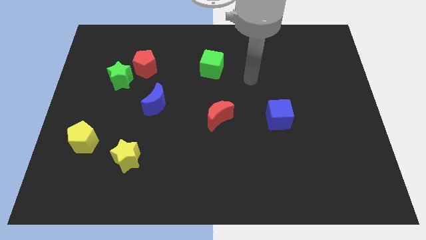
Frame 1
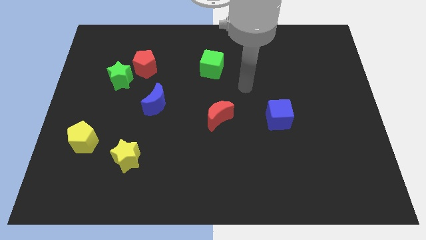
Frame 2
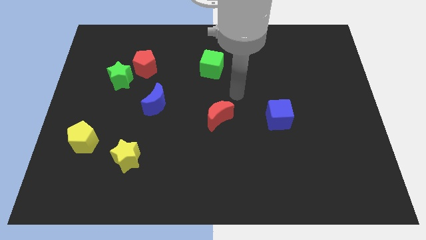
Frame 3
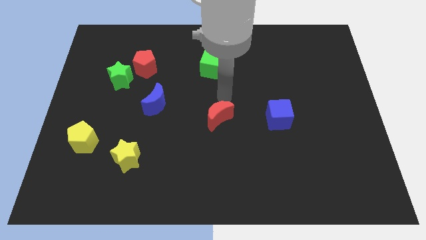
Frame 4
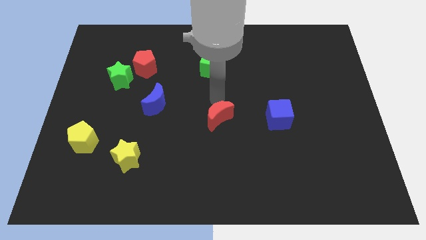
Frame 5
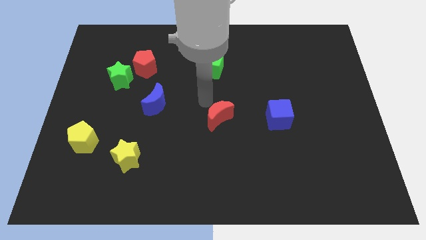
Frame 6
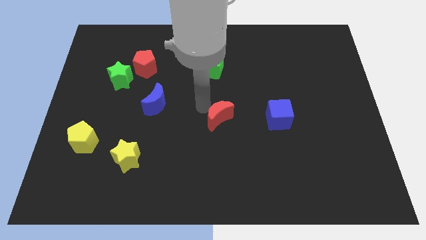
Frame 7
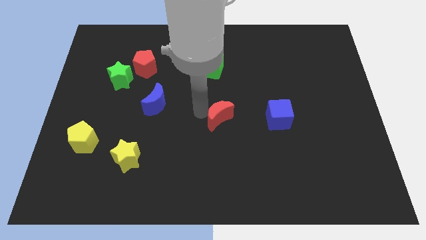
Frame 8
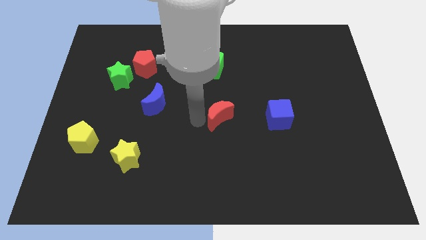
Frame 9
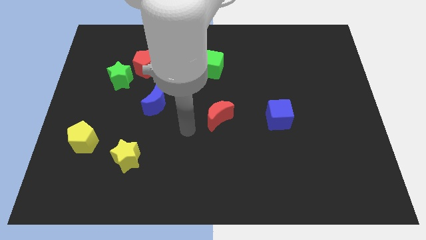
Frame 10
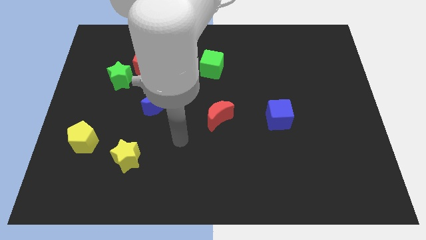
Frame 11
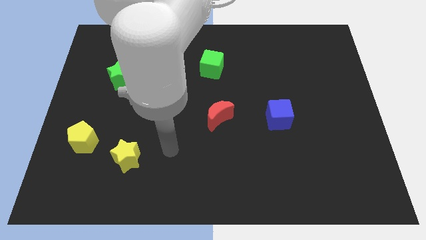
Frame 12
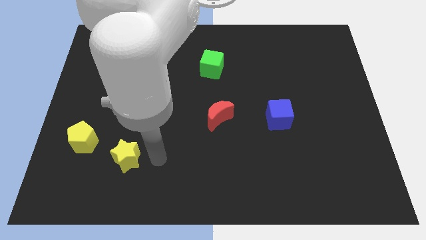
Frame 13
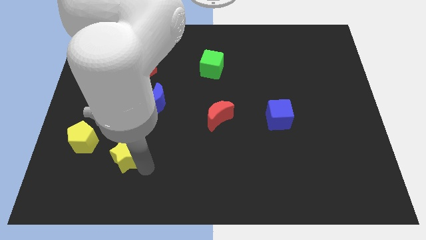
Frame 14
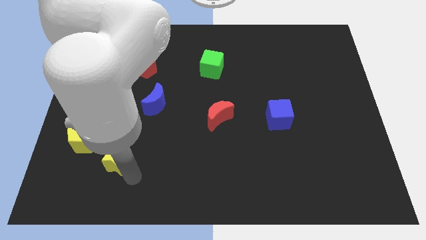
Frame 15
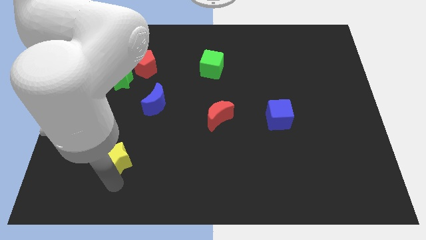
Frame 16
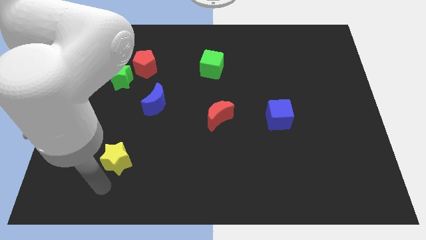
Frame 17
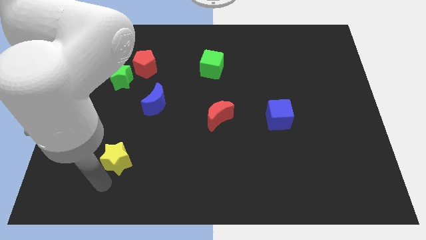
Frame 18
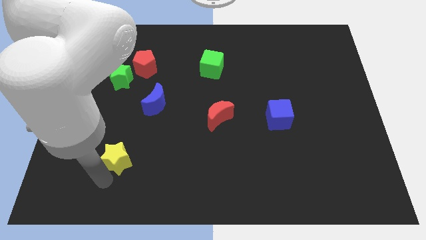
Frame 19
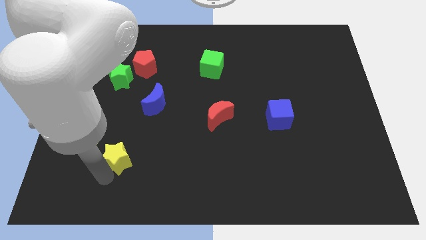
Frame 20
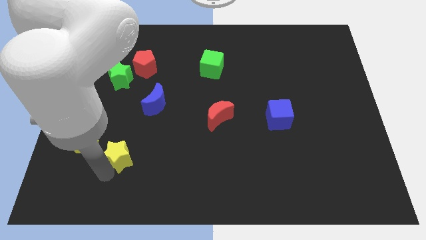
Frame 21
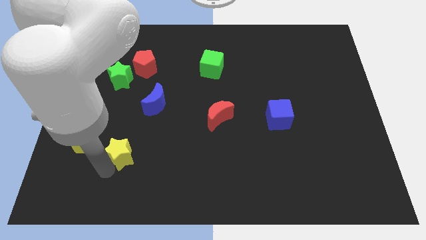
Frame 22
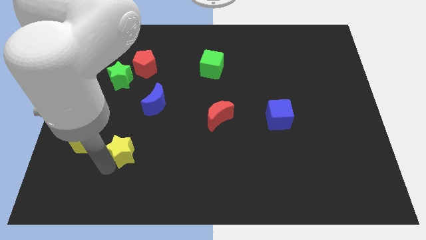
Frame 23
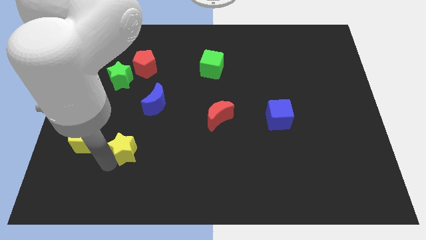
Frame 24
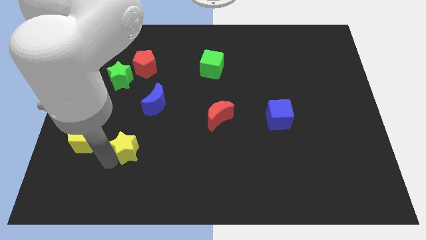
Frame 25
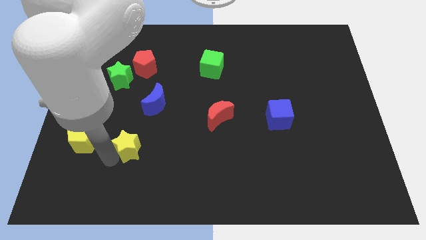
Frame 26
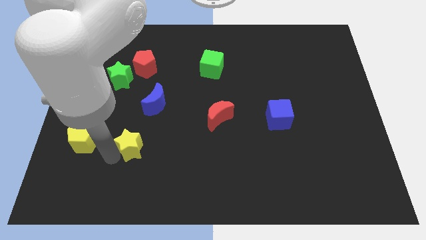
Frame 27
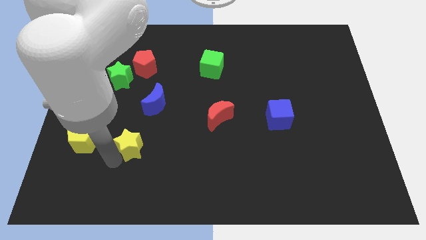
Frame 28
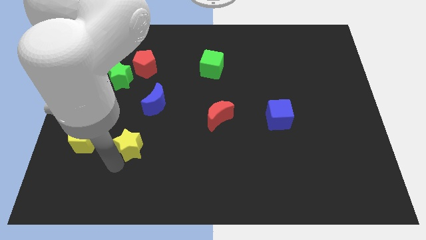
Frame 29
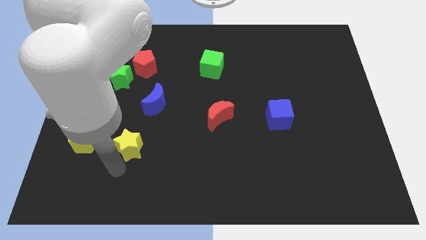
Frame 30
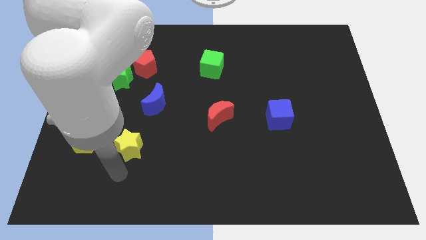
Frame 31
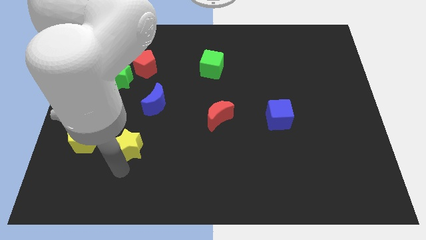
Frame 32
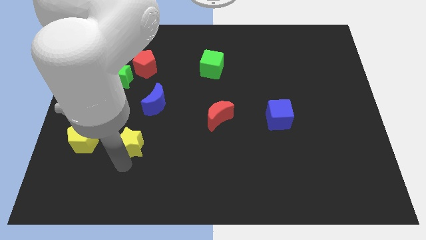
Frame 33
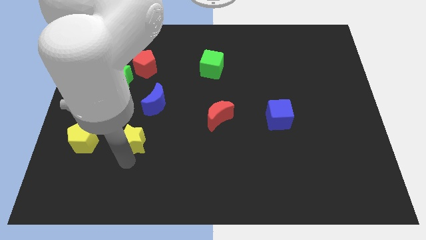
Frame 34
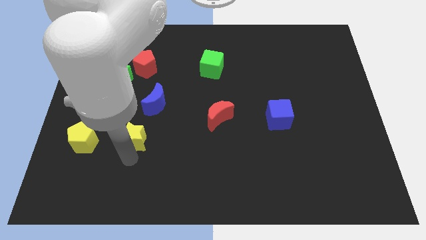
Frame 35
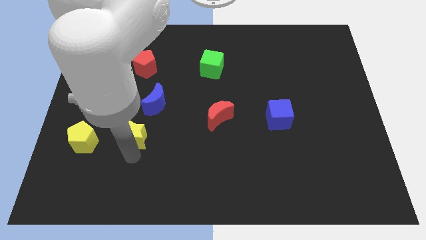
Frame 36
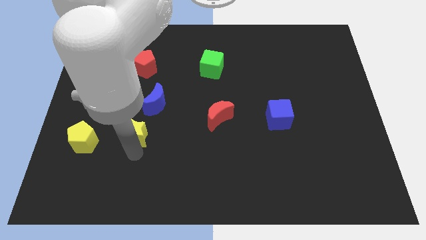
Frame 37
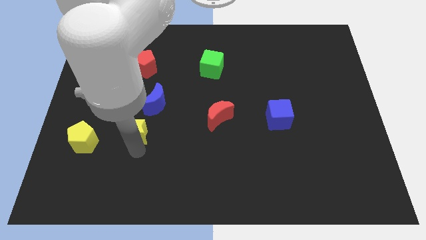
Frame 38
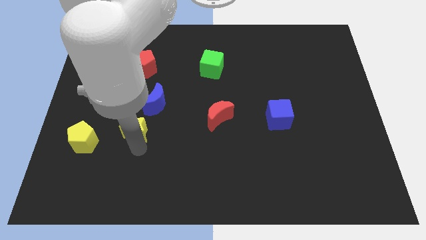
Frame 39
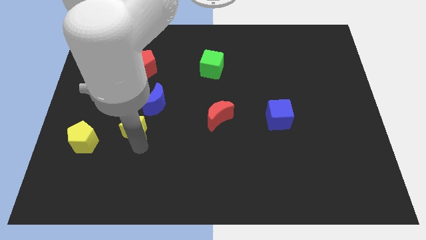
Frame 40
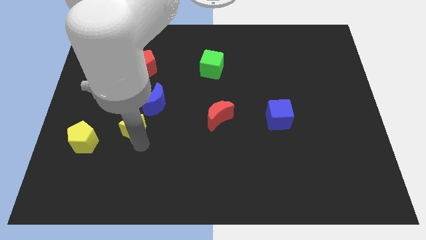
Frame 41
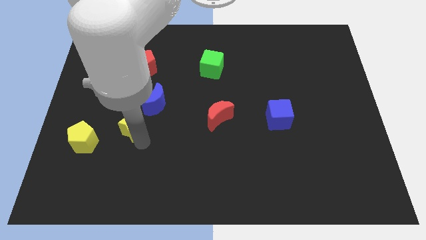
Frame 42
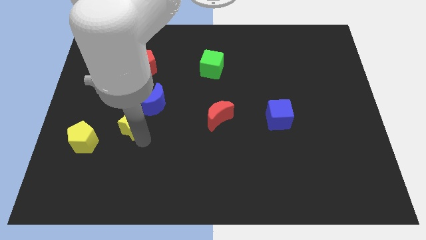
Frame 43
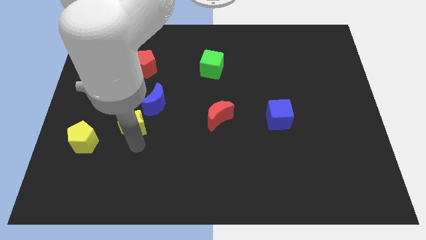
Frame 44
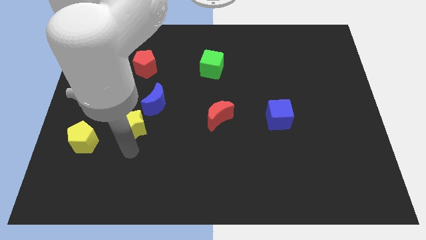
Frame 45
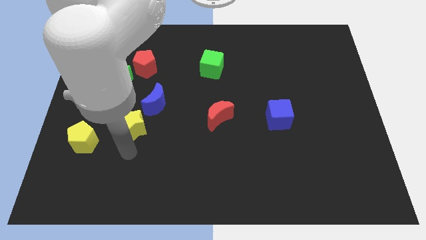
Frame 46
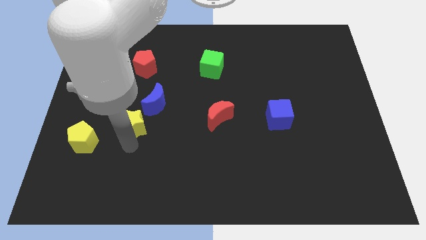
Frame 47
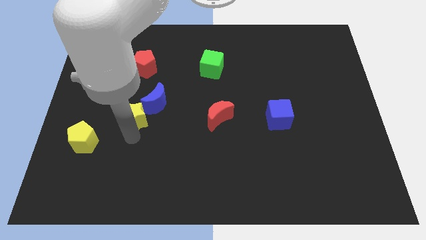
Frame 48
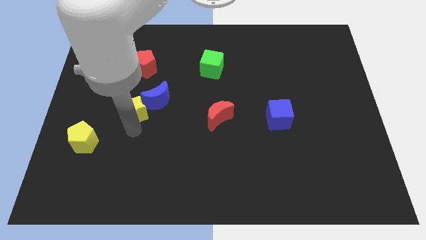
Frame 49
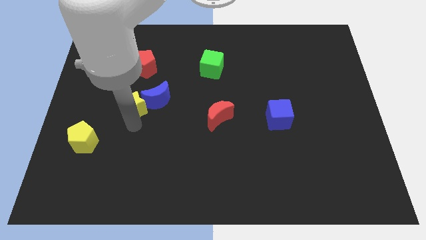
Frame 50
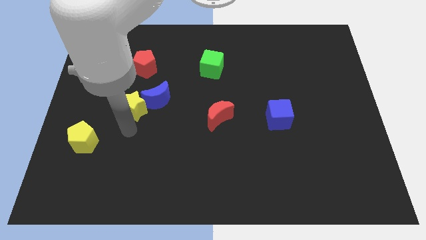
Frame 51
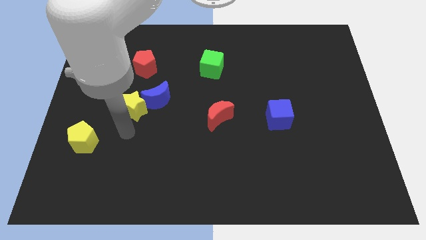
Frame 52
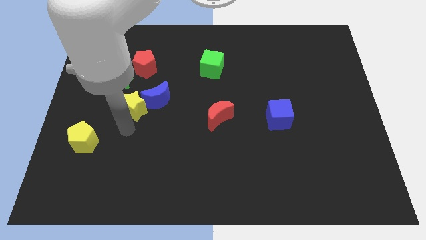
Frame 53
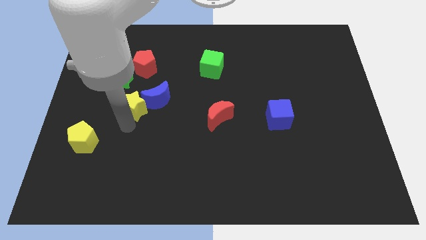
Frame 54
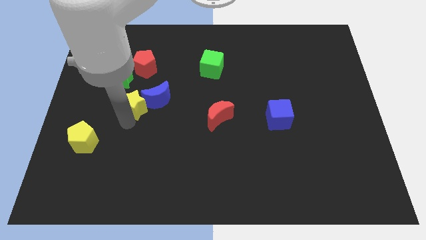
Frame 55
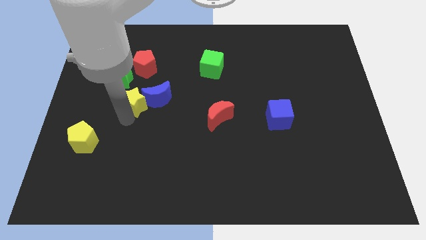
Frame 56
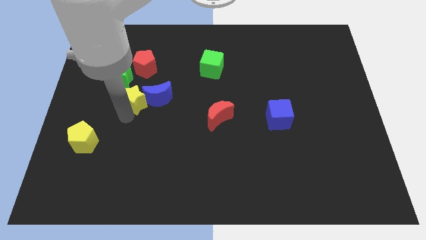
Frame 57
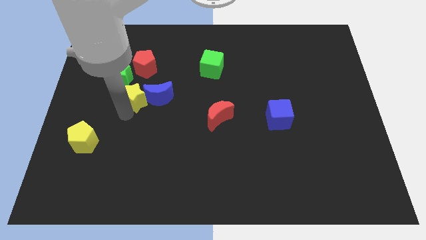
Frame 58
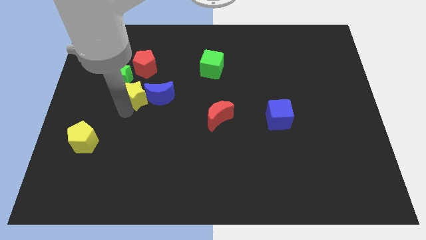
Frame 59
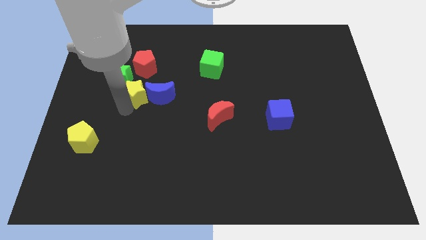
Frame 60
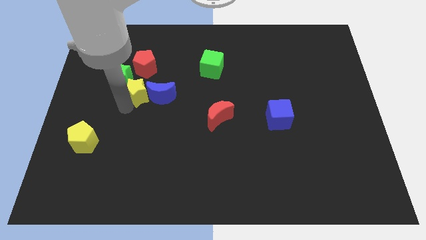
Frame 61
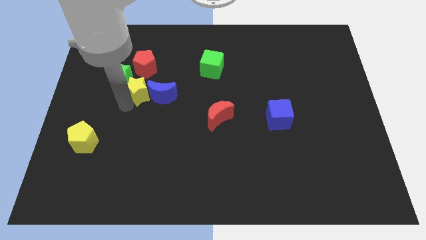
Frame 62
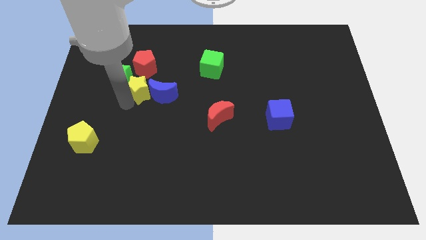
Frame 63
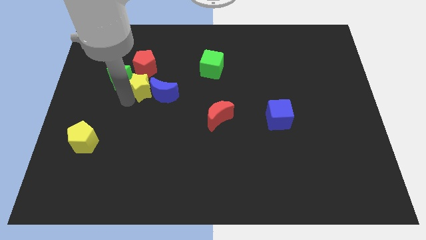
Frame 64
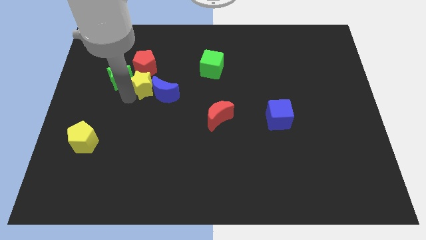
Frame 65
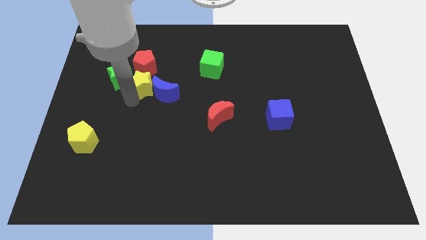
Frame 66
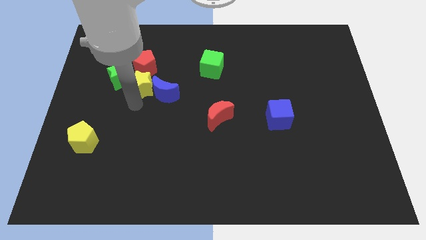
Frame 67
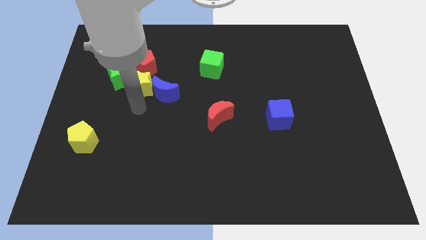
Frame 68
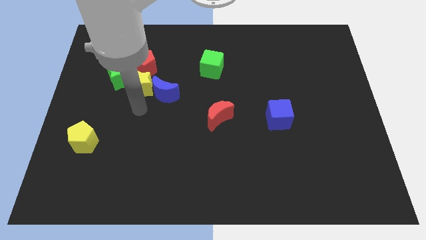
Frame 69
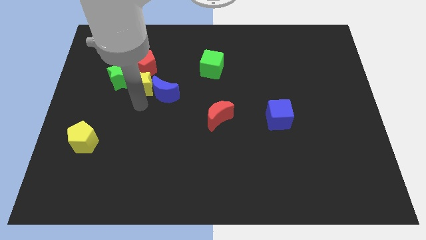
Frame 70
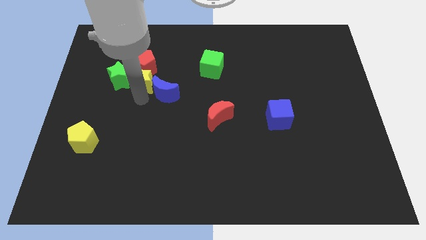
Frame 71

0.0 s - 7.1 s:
put the yellow star next to the red pentagon

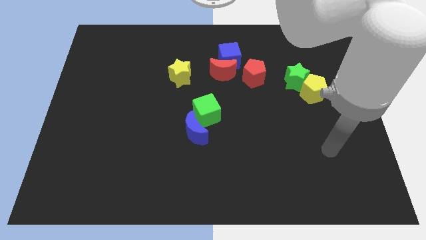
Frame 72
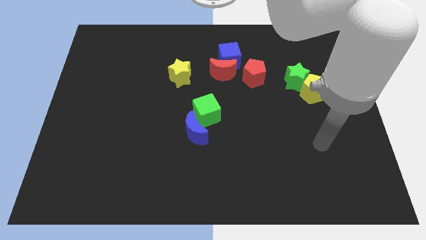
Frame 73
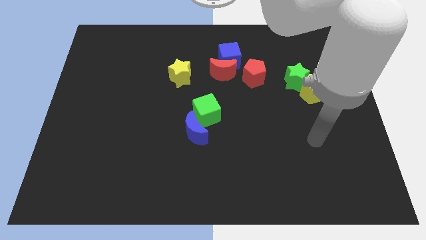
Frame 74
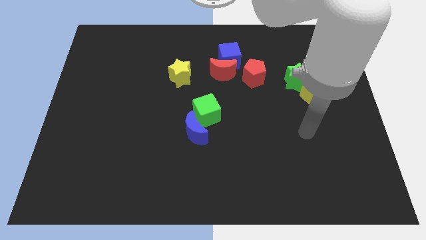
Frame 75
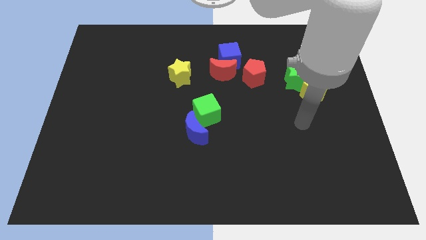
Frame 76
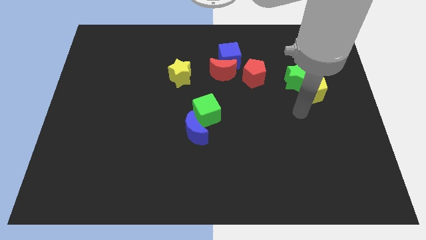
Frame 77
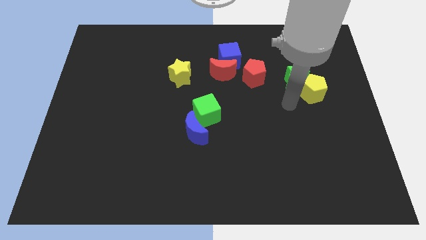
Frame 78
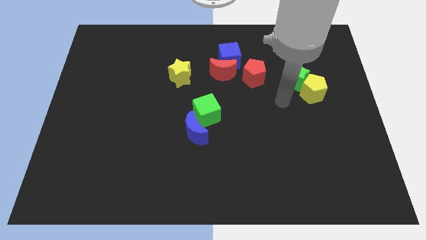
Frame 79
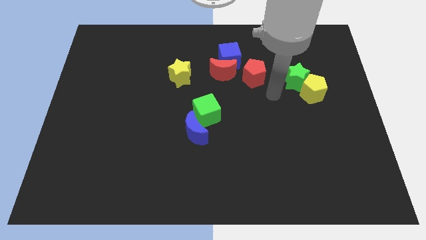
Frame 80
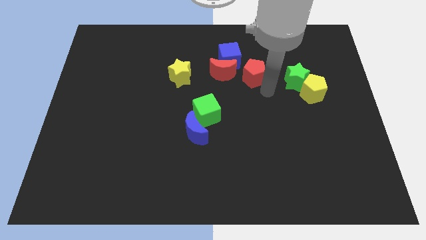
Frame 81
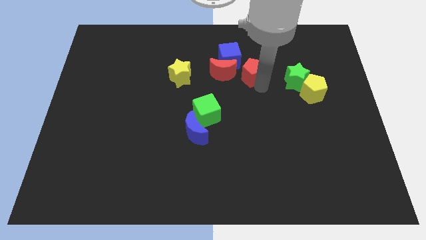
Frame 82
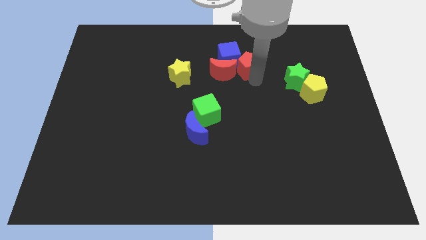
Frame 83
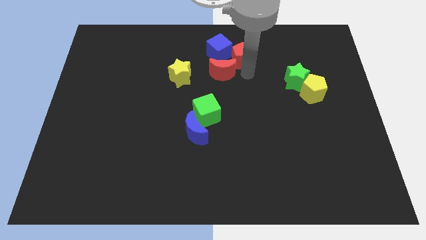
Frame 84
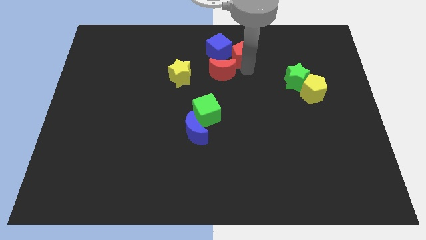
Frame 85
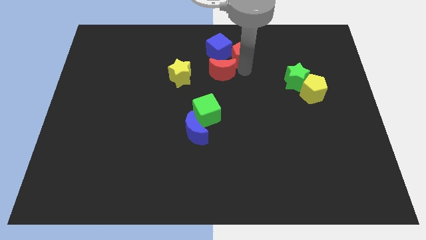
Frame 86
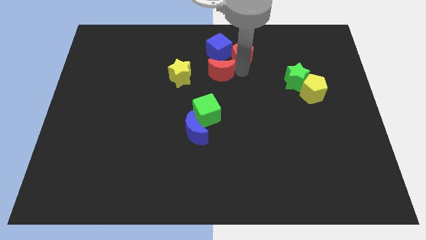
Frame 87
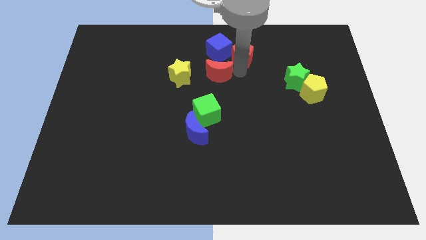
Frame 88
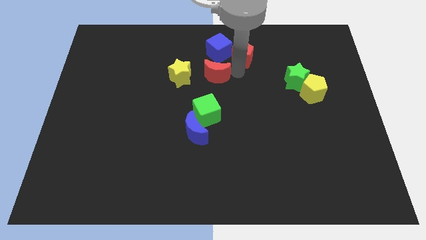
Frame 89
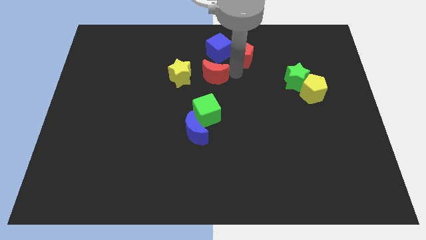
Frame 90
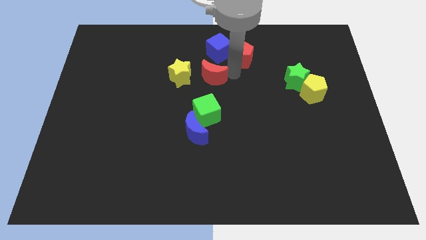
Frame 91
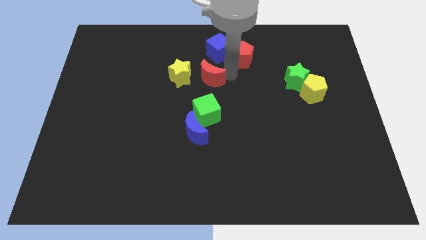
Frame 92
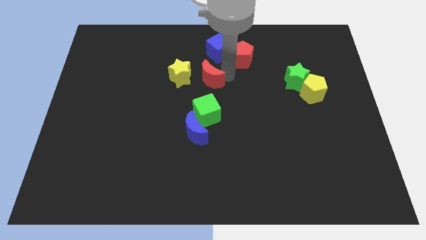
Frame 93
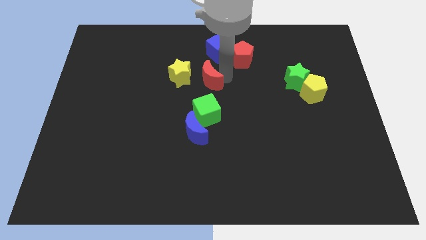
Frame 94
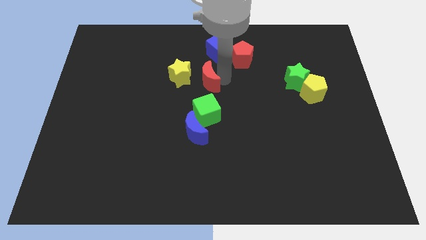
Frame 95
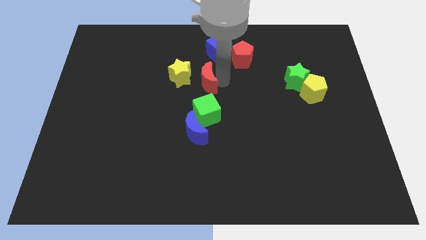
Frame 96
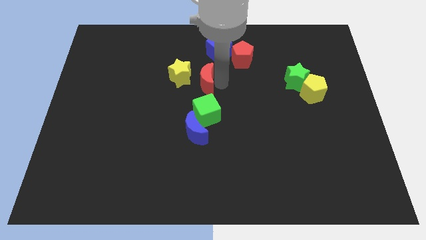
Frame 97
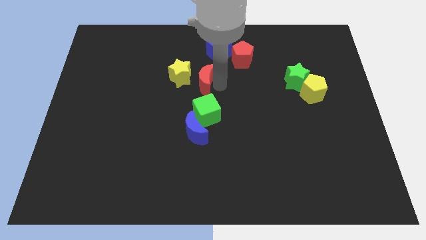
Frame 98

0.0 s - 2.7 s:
push the red moon to the yellow star
